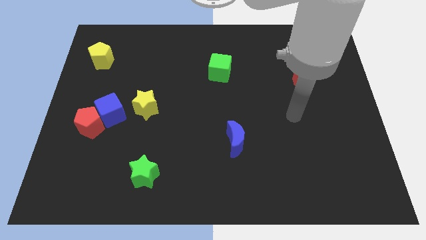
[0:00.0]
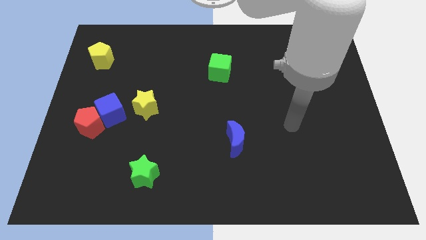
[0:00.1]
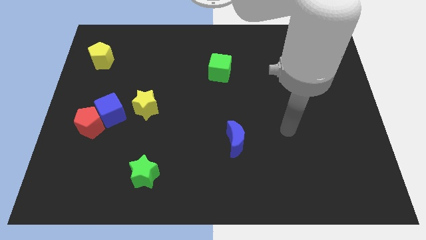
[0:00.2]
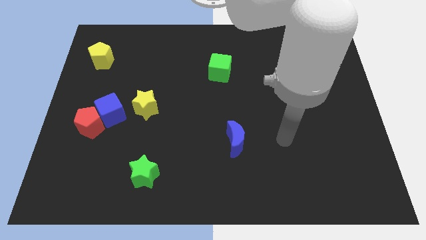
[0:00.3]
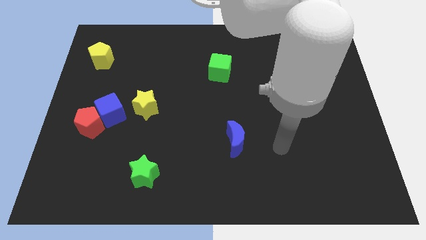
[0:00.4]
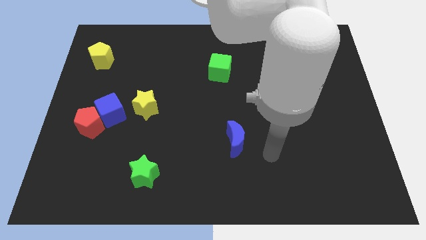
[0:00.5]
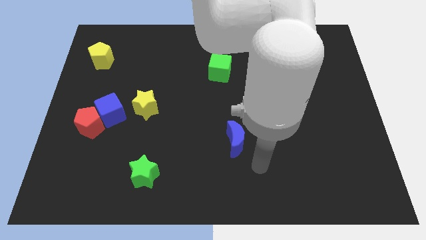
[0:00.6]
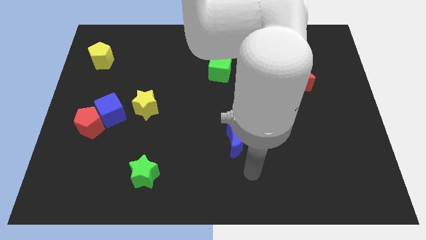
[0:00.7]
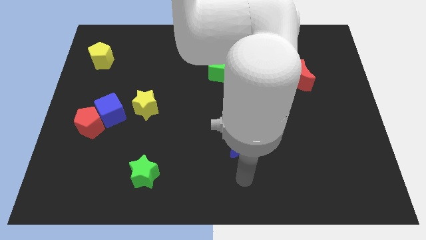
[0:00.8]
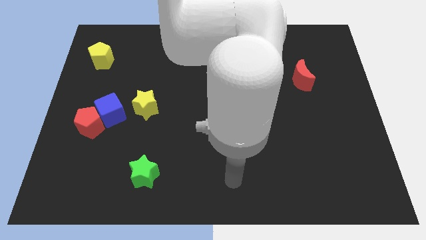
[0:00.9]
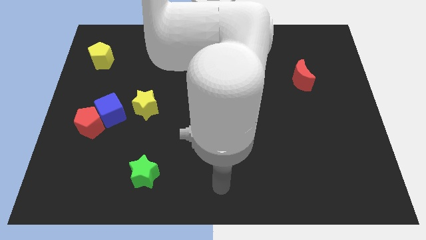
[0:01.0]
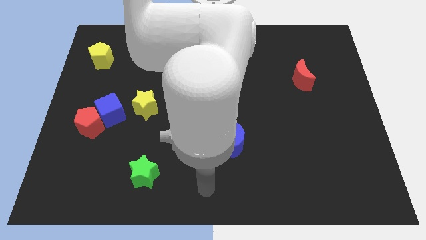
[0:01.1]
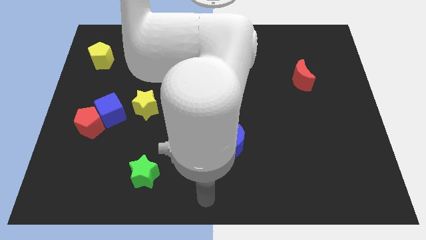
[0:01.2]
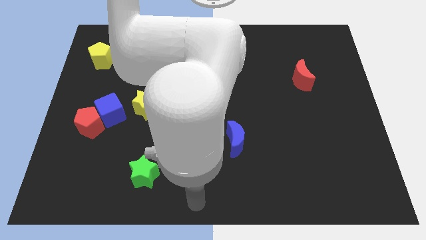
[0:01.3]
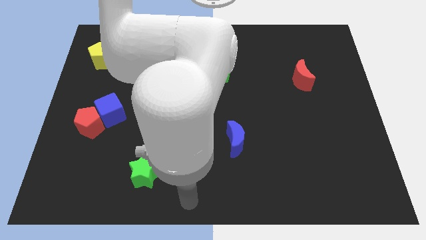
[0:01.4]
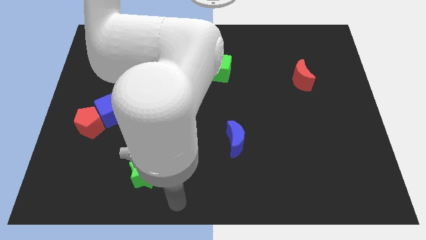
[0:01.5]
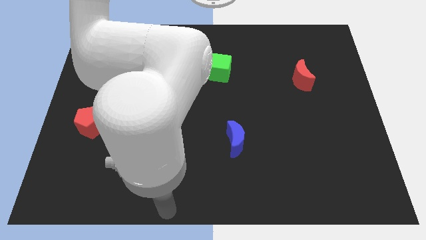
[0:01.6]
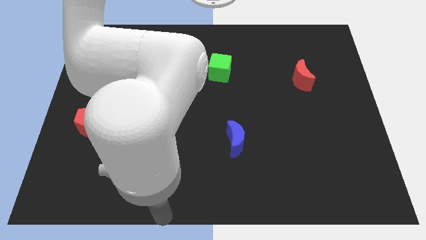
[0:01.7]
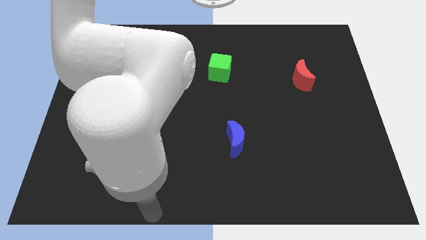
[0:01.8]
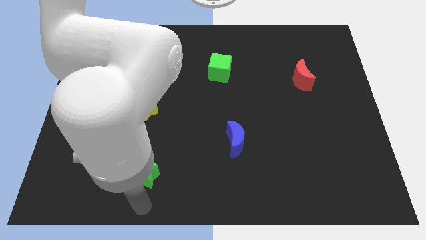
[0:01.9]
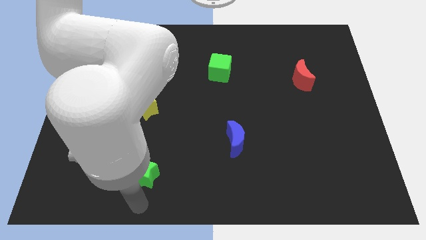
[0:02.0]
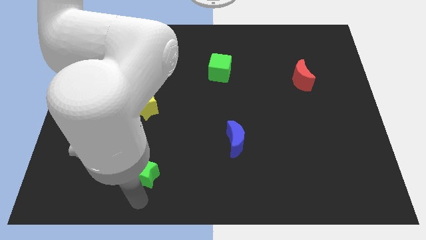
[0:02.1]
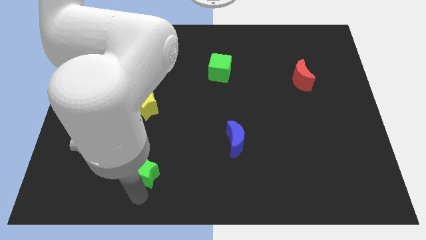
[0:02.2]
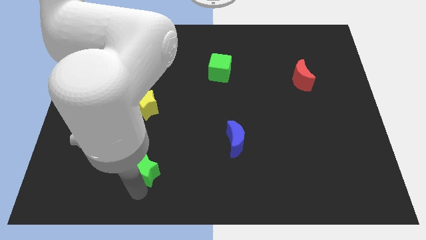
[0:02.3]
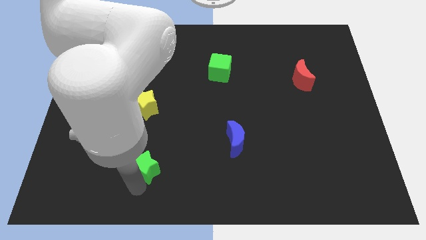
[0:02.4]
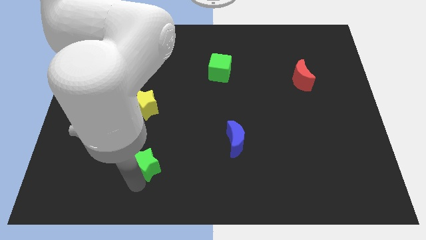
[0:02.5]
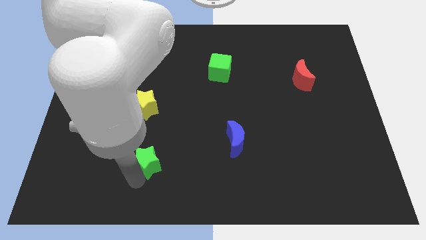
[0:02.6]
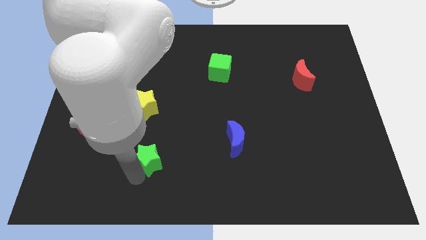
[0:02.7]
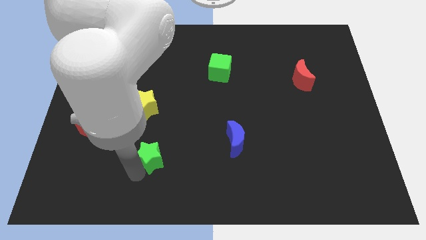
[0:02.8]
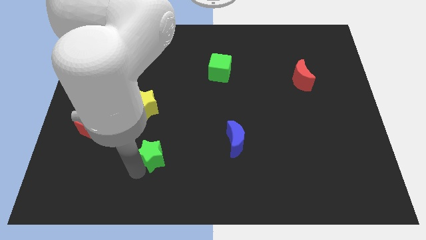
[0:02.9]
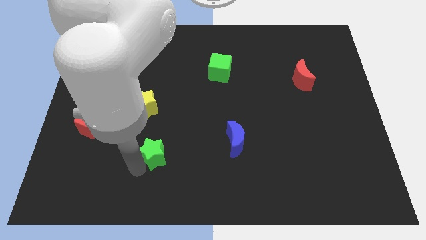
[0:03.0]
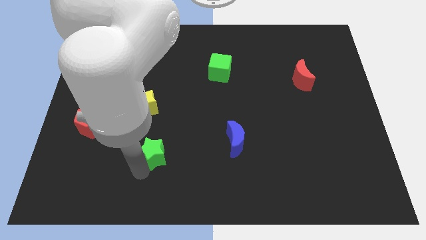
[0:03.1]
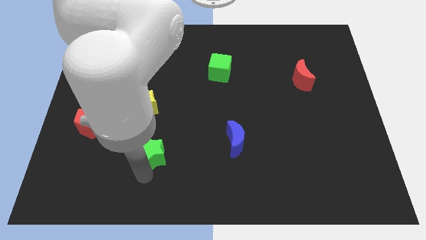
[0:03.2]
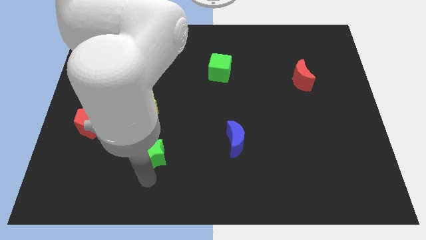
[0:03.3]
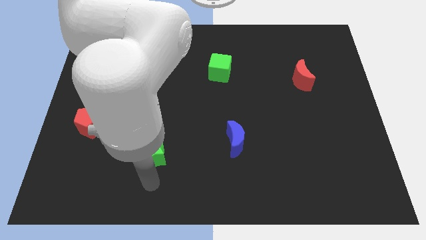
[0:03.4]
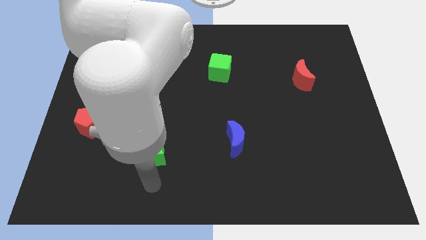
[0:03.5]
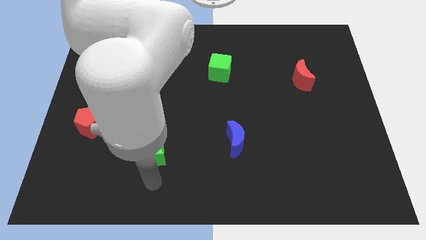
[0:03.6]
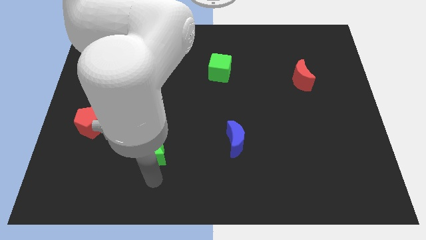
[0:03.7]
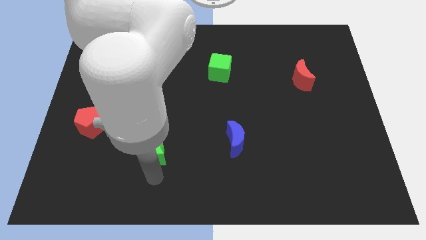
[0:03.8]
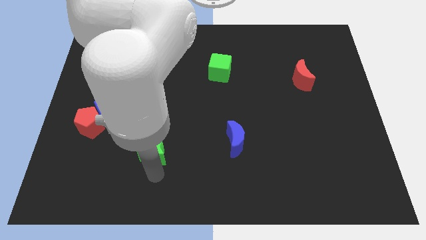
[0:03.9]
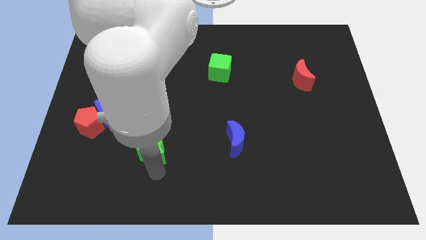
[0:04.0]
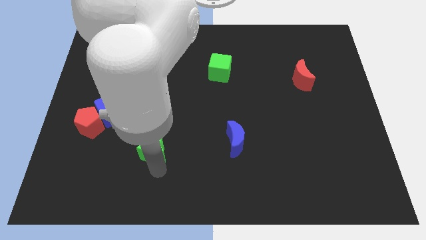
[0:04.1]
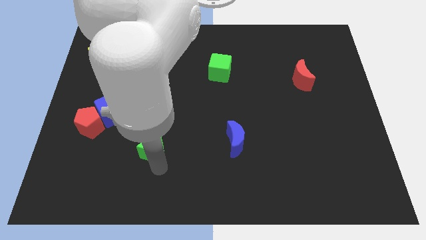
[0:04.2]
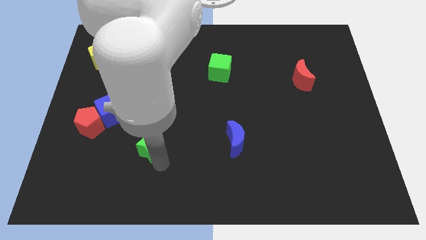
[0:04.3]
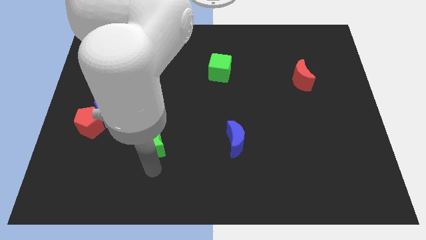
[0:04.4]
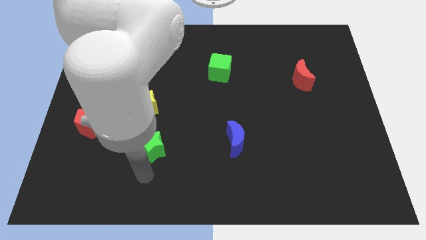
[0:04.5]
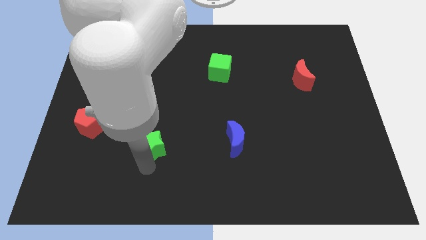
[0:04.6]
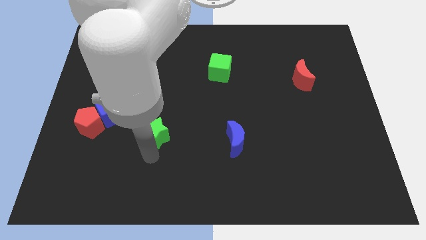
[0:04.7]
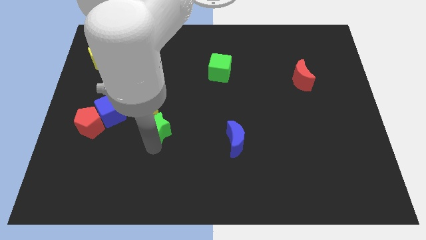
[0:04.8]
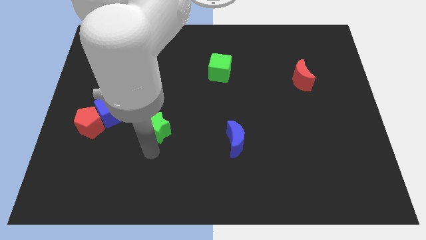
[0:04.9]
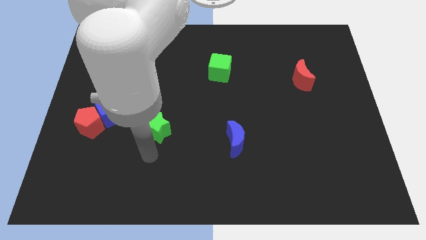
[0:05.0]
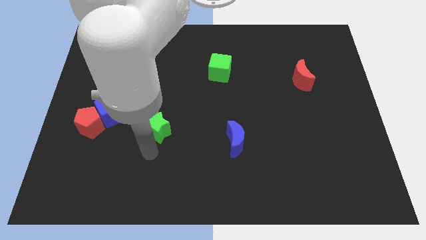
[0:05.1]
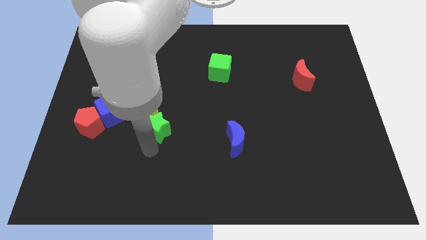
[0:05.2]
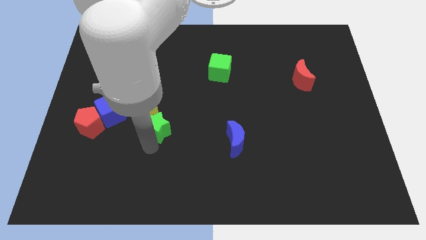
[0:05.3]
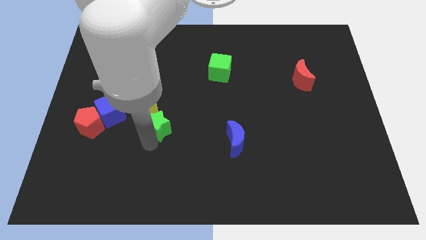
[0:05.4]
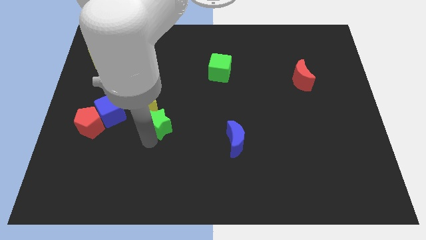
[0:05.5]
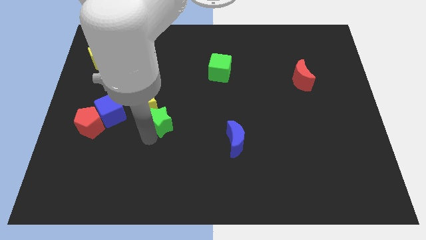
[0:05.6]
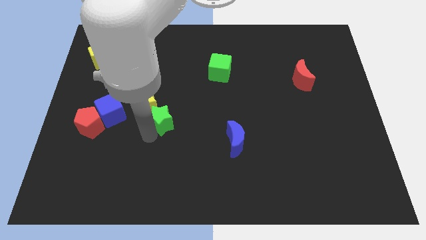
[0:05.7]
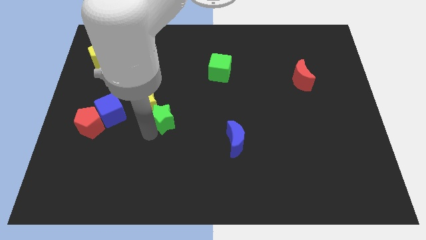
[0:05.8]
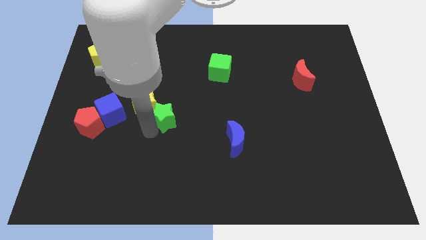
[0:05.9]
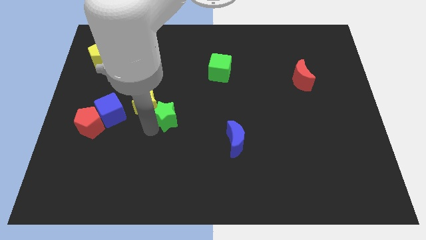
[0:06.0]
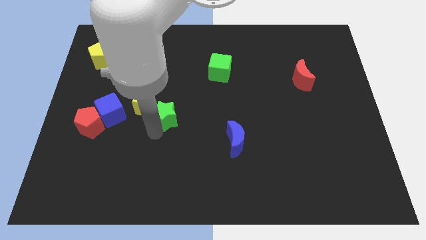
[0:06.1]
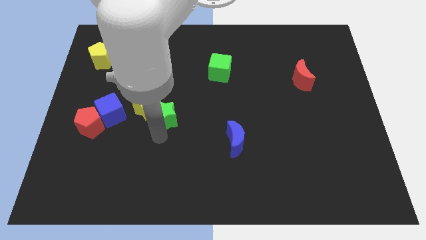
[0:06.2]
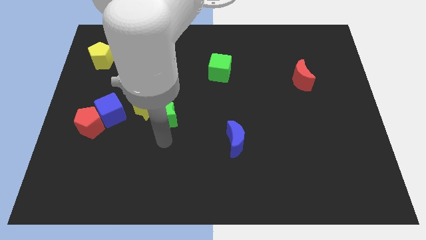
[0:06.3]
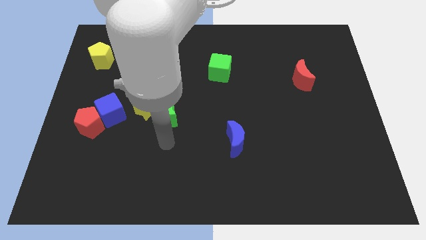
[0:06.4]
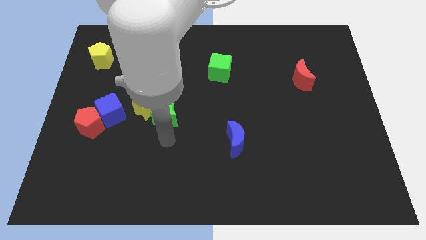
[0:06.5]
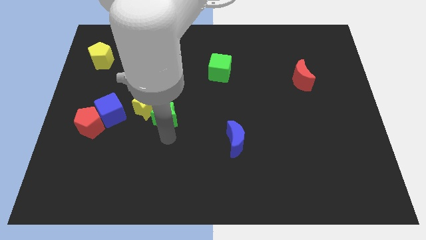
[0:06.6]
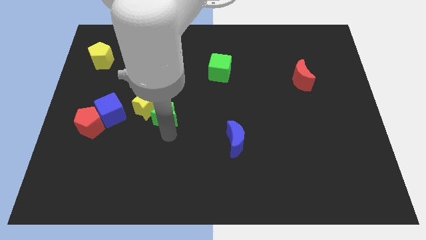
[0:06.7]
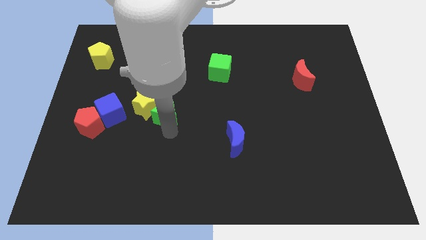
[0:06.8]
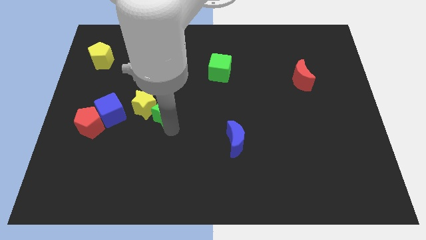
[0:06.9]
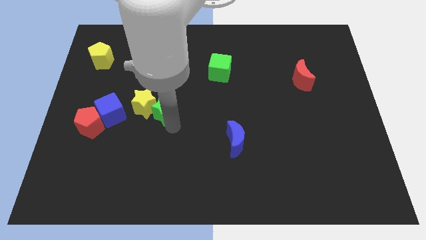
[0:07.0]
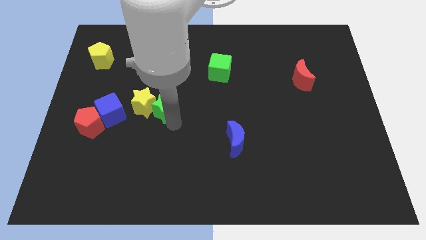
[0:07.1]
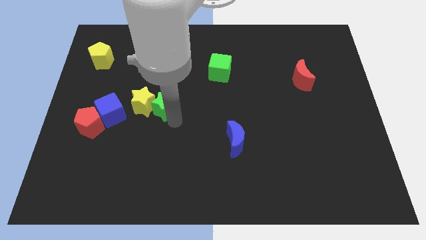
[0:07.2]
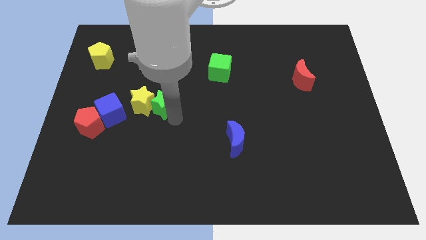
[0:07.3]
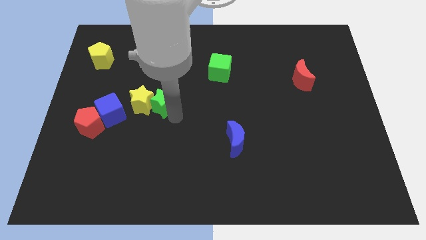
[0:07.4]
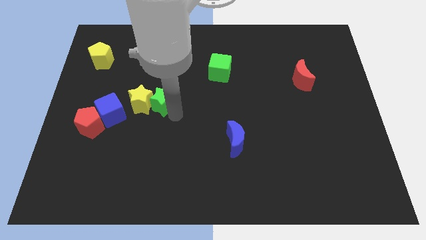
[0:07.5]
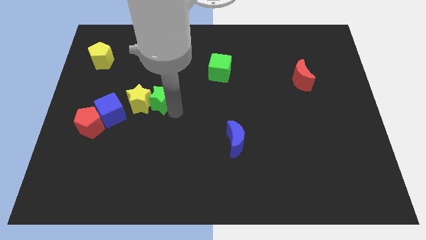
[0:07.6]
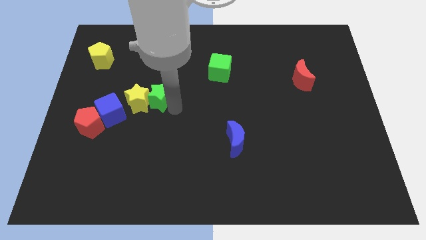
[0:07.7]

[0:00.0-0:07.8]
push the green star upwards

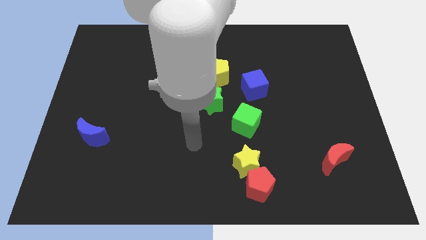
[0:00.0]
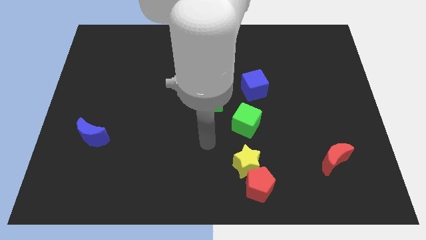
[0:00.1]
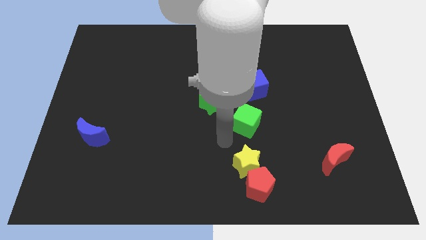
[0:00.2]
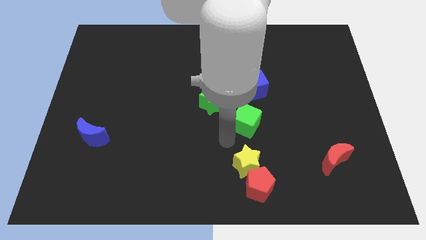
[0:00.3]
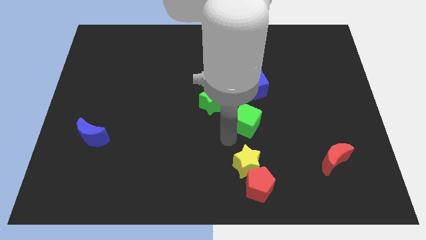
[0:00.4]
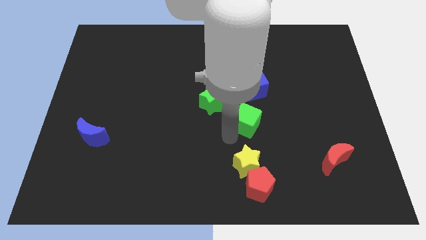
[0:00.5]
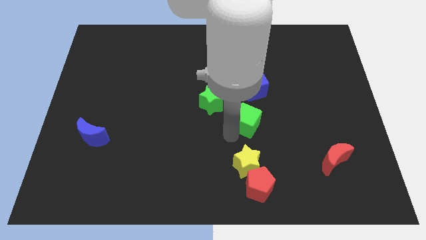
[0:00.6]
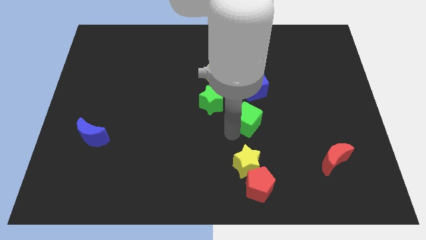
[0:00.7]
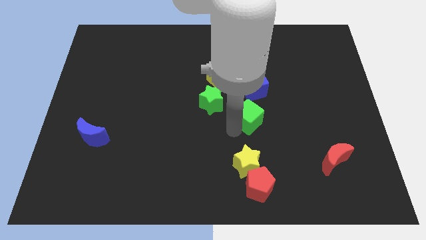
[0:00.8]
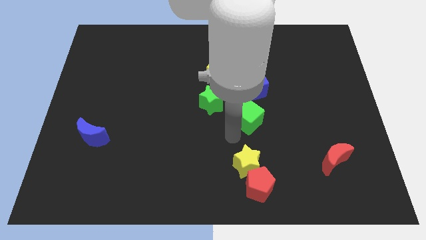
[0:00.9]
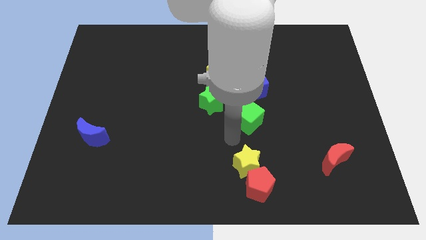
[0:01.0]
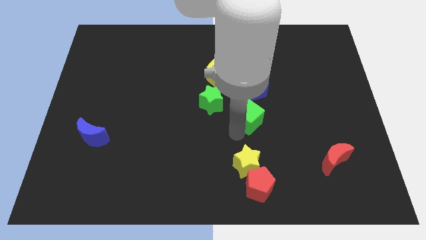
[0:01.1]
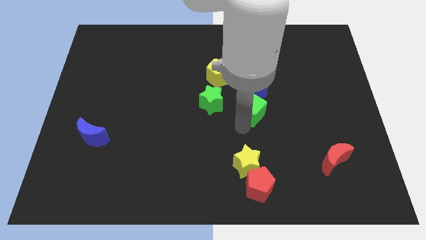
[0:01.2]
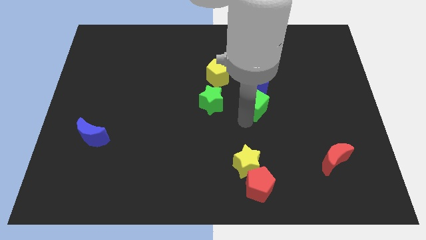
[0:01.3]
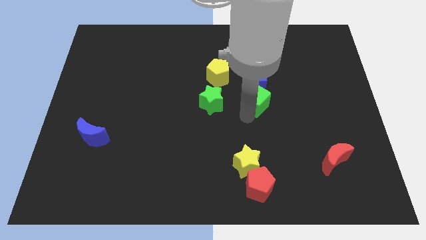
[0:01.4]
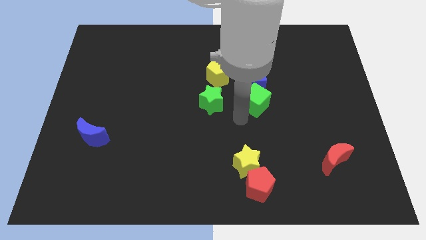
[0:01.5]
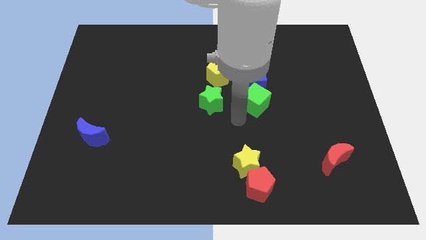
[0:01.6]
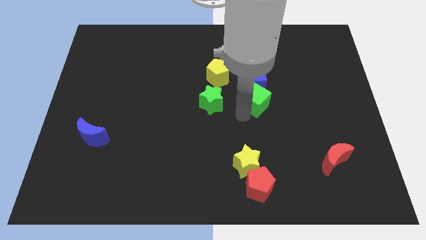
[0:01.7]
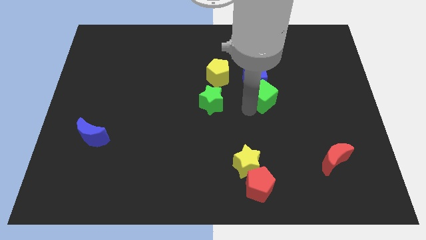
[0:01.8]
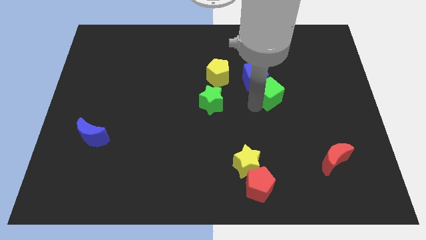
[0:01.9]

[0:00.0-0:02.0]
move the green cube up a little bit
